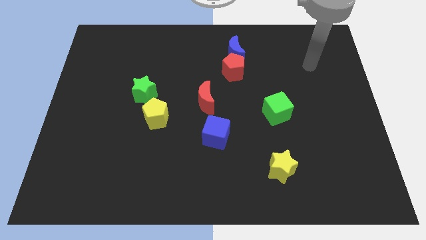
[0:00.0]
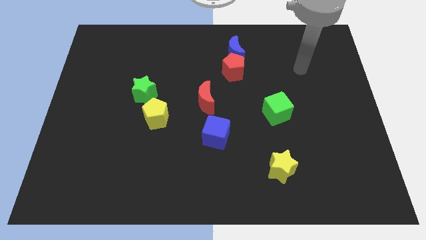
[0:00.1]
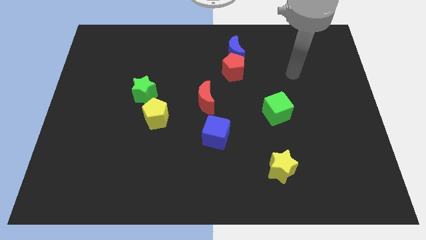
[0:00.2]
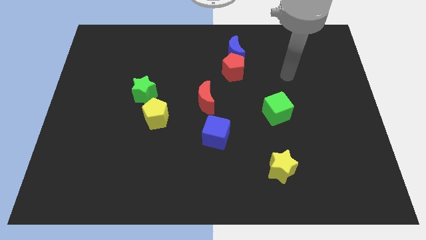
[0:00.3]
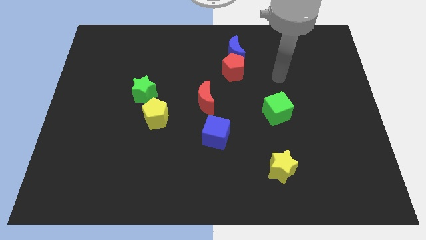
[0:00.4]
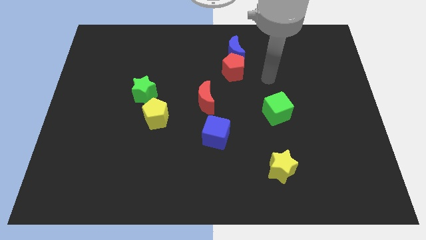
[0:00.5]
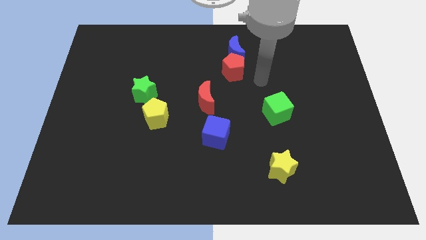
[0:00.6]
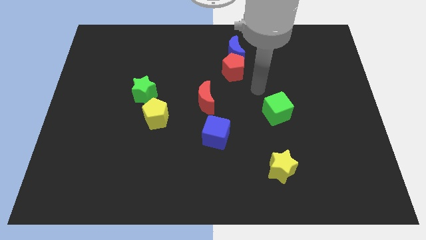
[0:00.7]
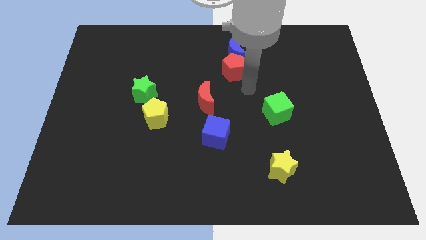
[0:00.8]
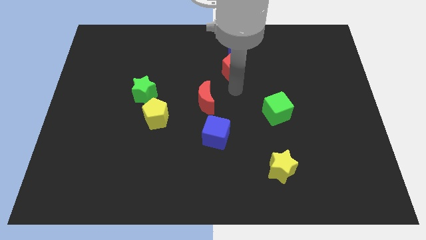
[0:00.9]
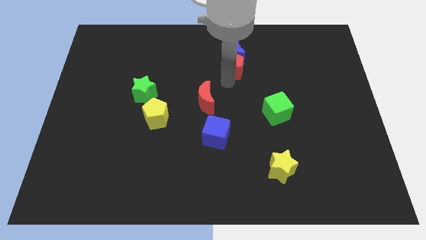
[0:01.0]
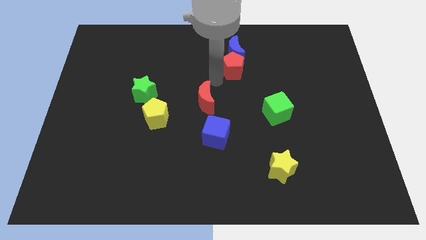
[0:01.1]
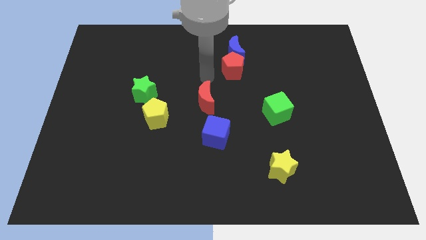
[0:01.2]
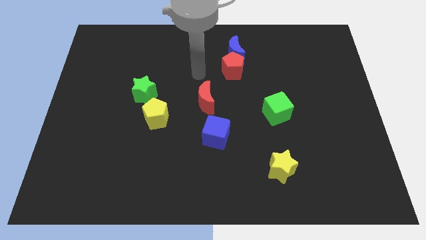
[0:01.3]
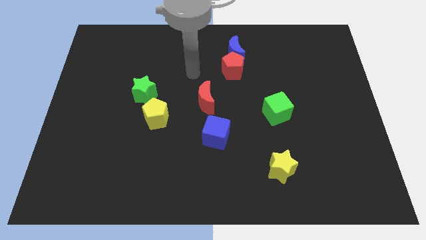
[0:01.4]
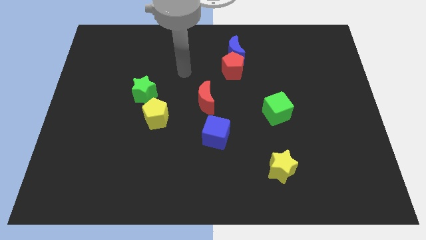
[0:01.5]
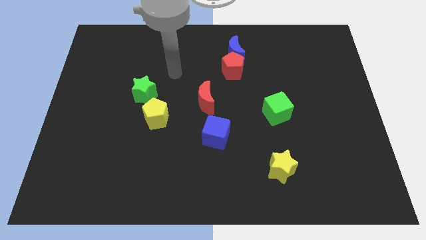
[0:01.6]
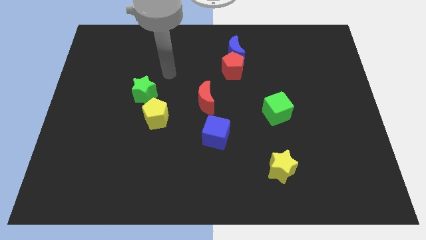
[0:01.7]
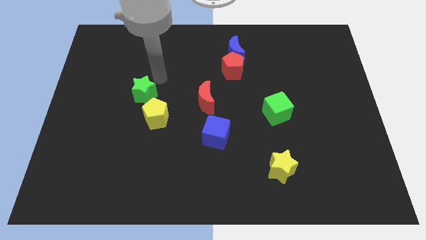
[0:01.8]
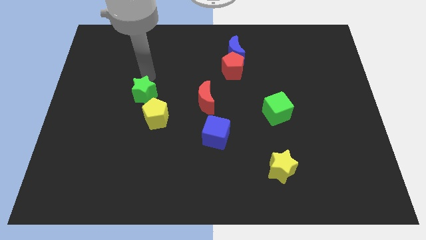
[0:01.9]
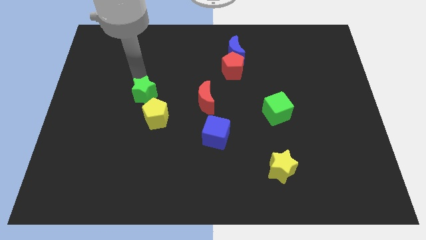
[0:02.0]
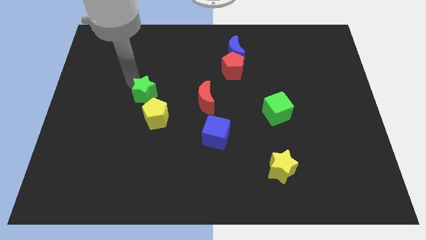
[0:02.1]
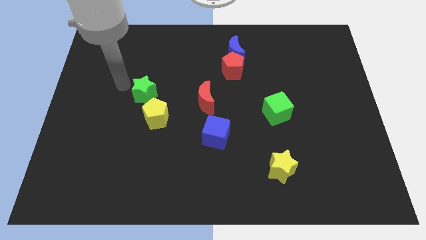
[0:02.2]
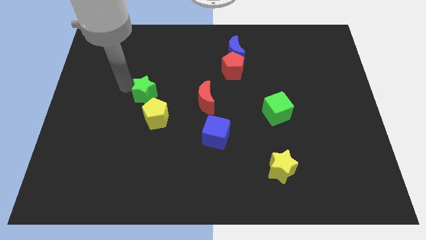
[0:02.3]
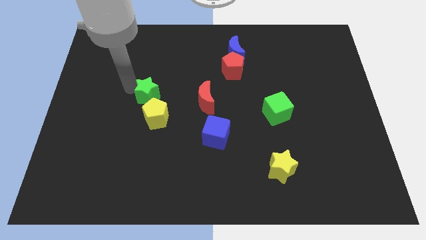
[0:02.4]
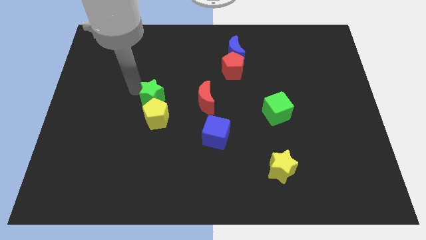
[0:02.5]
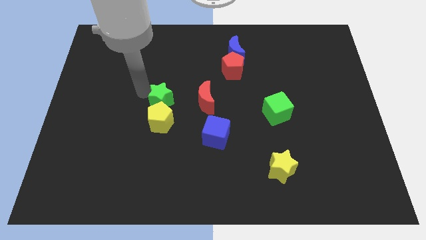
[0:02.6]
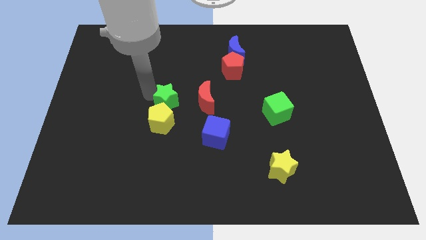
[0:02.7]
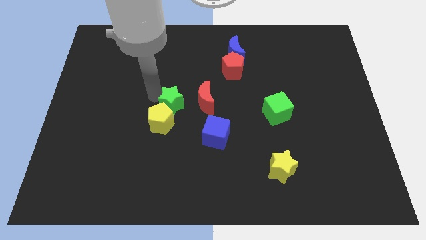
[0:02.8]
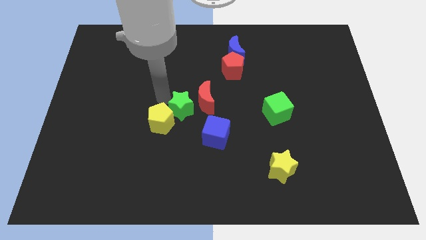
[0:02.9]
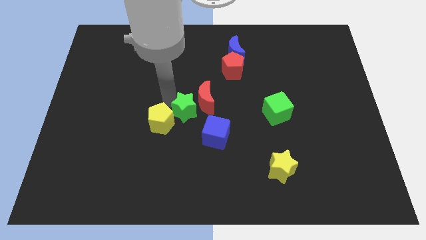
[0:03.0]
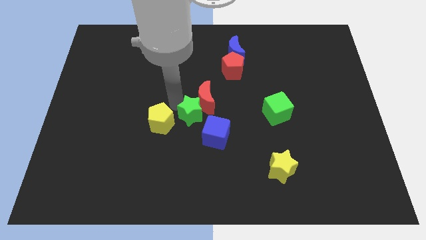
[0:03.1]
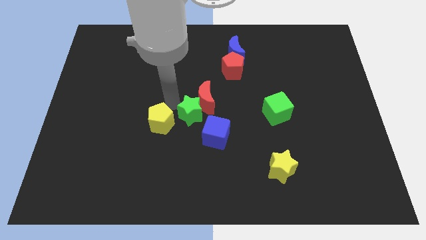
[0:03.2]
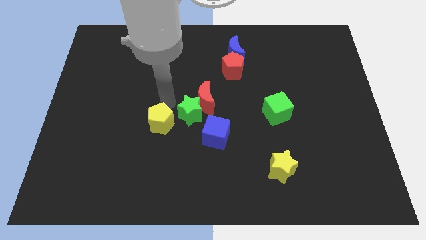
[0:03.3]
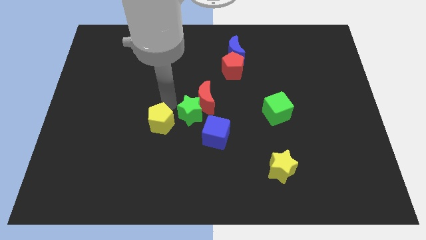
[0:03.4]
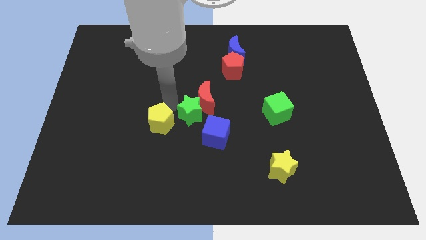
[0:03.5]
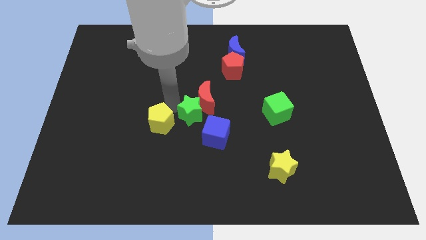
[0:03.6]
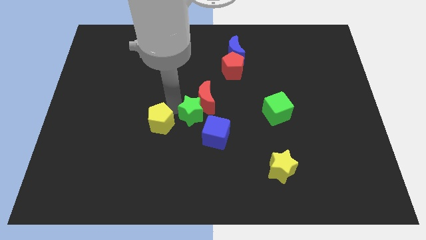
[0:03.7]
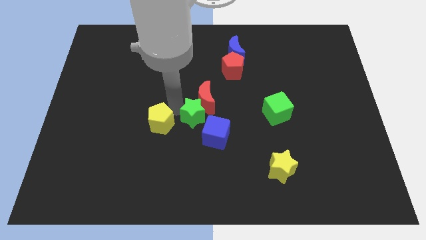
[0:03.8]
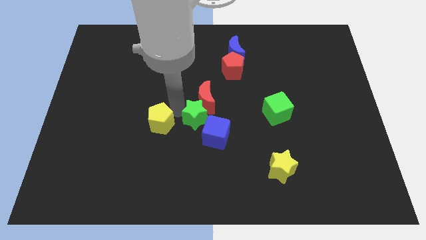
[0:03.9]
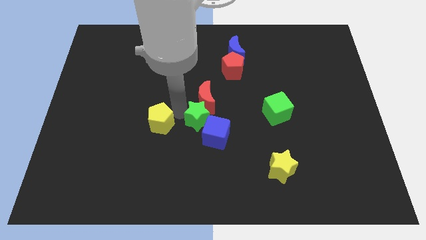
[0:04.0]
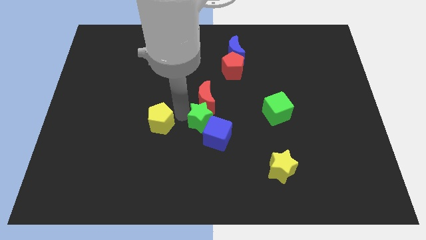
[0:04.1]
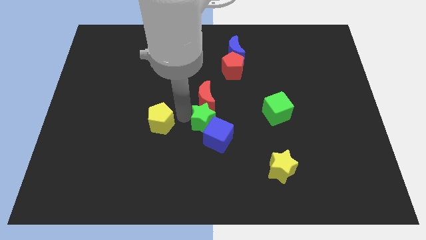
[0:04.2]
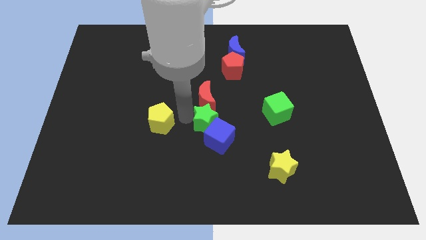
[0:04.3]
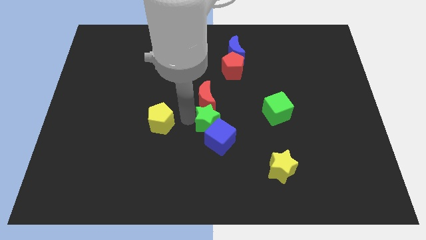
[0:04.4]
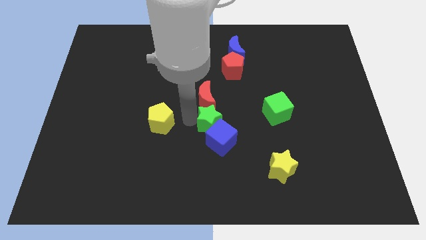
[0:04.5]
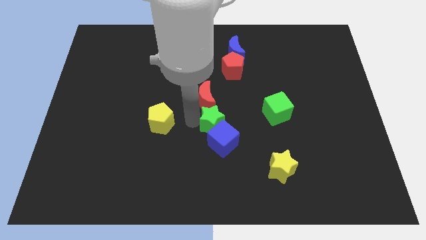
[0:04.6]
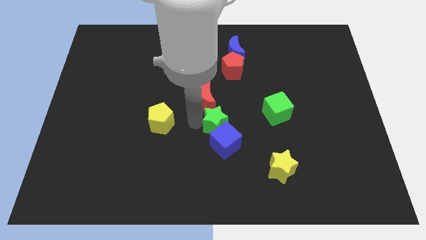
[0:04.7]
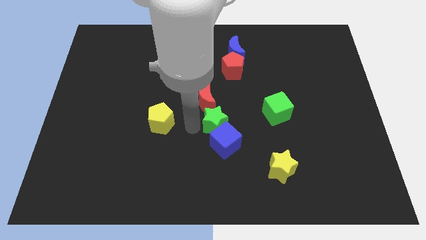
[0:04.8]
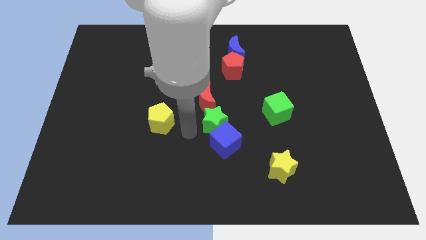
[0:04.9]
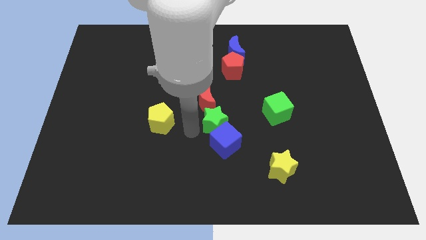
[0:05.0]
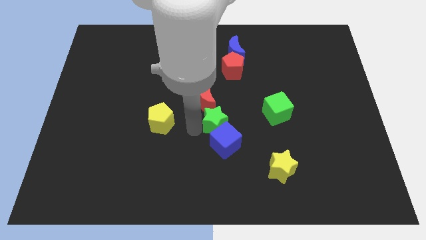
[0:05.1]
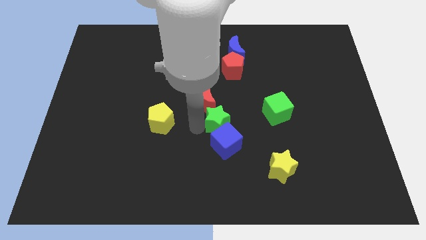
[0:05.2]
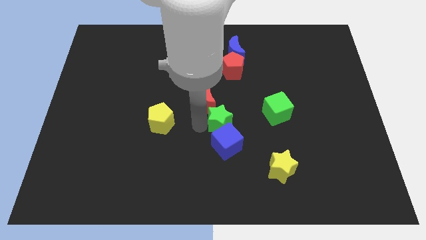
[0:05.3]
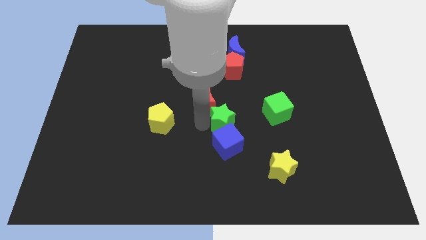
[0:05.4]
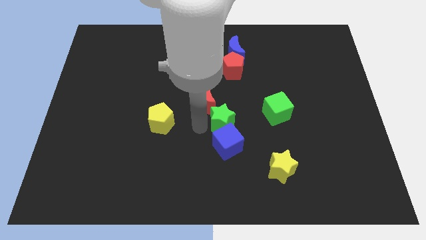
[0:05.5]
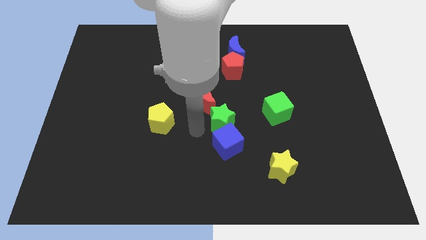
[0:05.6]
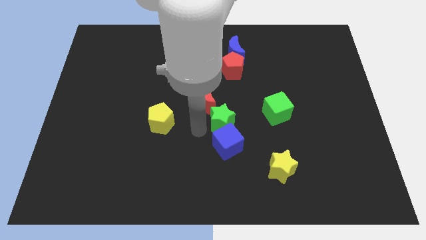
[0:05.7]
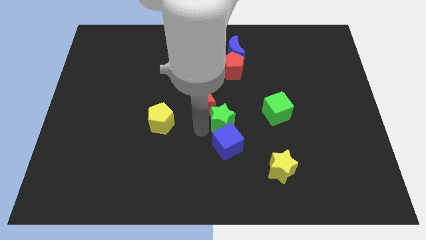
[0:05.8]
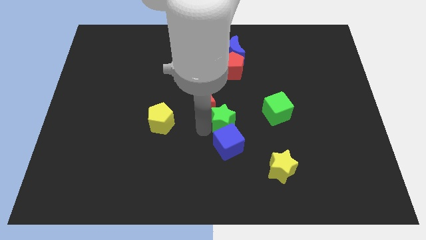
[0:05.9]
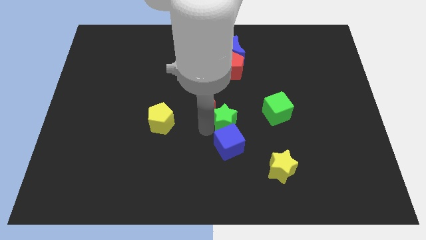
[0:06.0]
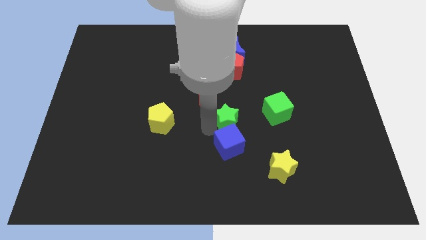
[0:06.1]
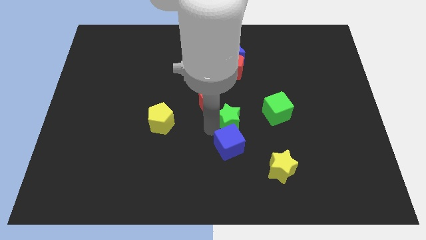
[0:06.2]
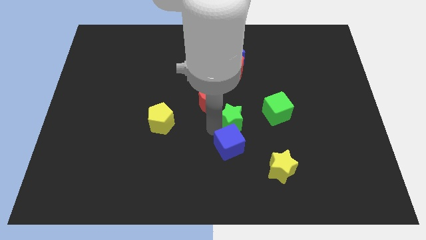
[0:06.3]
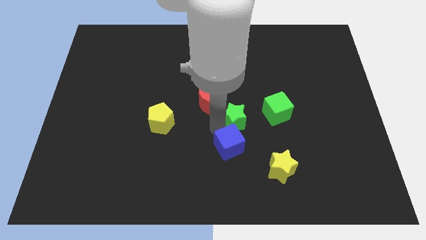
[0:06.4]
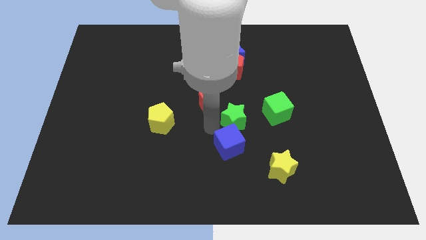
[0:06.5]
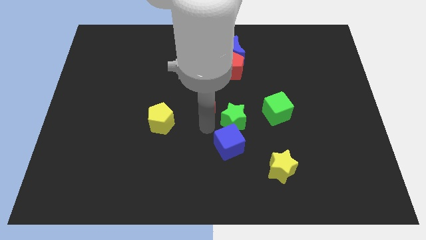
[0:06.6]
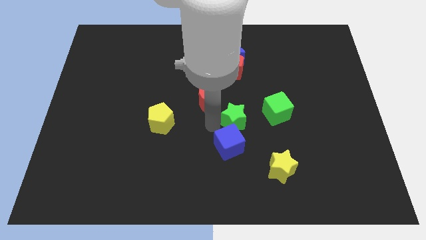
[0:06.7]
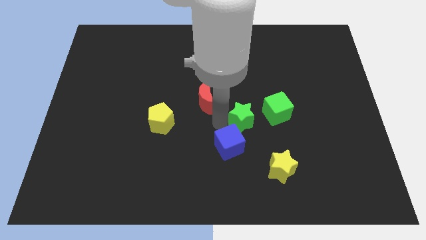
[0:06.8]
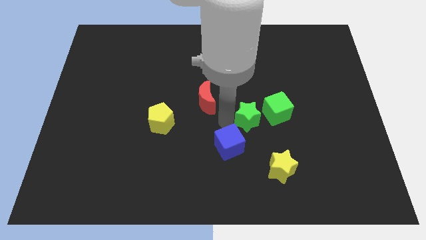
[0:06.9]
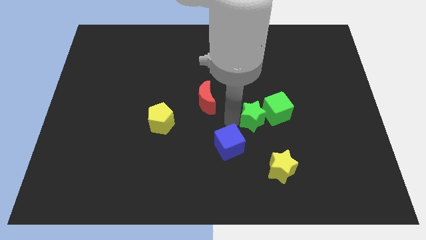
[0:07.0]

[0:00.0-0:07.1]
put the green star next to the green cube
